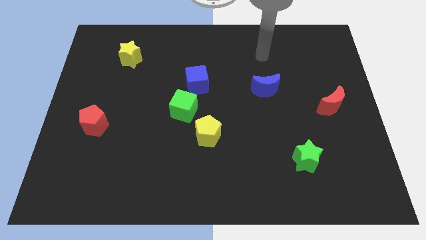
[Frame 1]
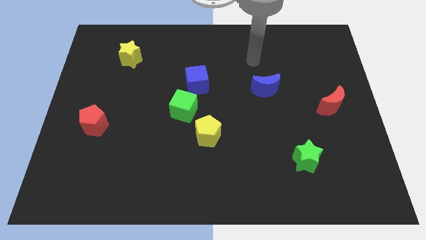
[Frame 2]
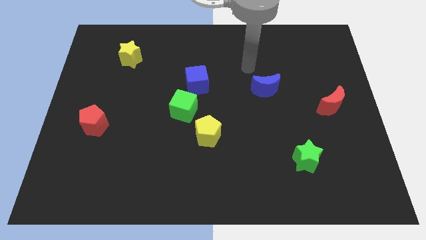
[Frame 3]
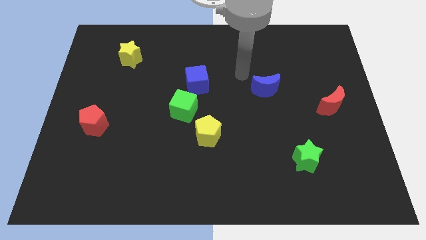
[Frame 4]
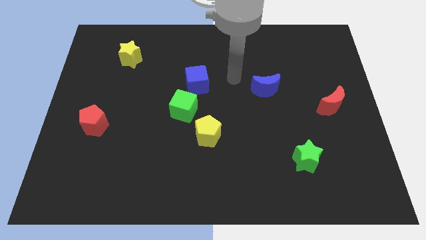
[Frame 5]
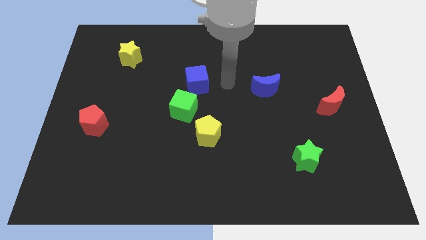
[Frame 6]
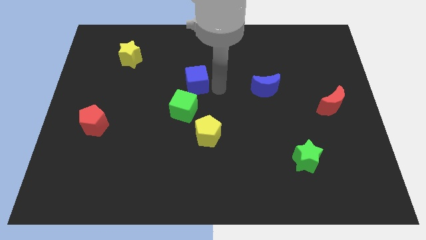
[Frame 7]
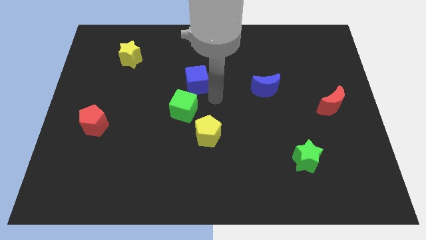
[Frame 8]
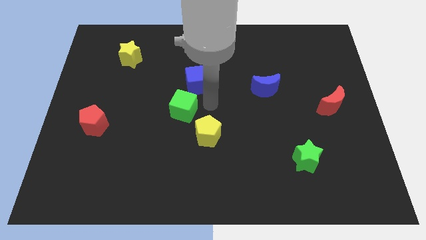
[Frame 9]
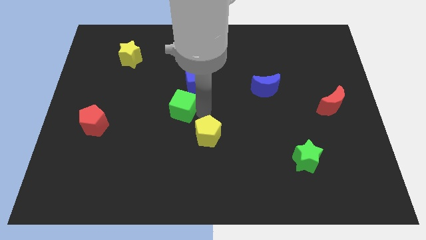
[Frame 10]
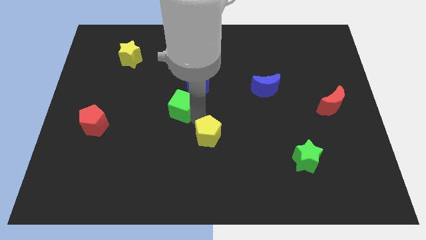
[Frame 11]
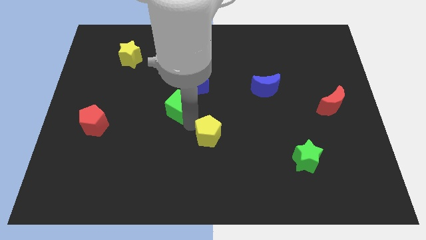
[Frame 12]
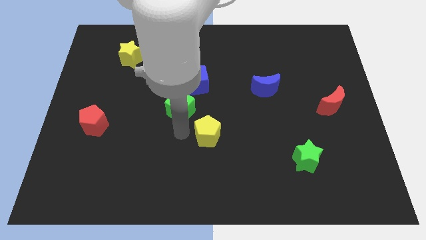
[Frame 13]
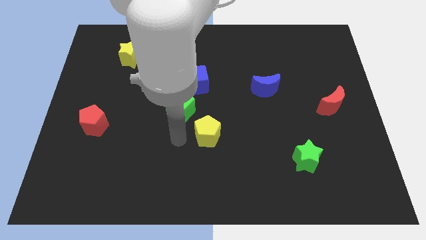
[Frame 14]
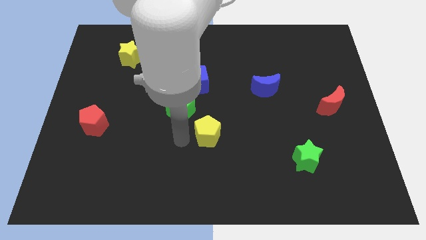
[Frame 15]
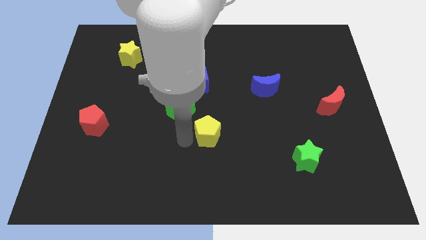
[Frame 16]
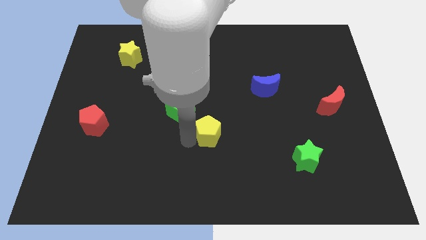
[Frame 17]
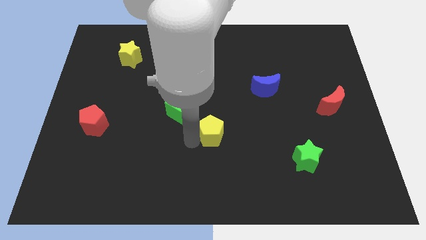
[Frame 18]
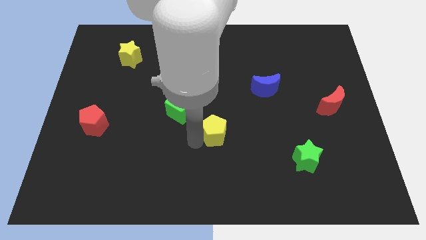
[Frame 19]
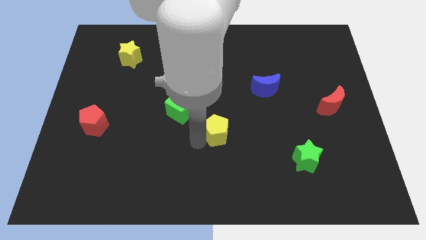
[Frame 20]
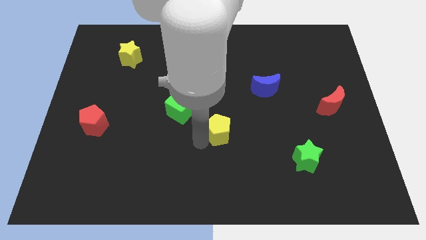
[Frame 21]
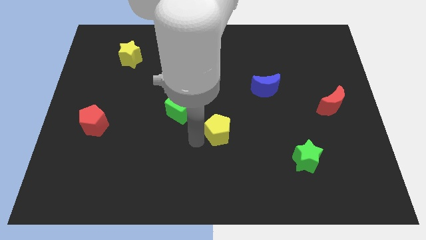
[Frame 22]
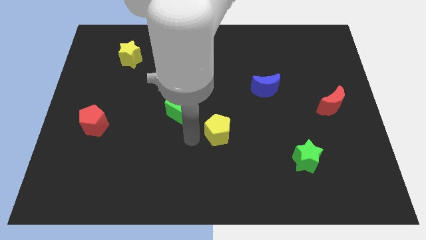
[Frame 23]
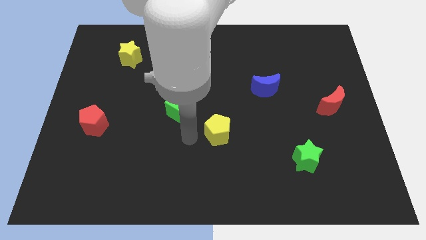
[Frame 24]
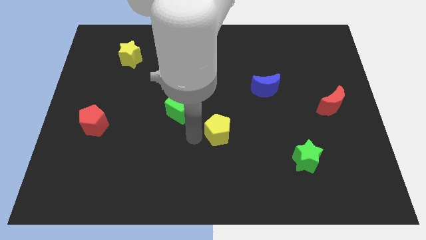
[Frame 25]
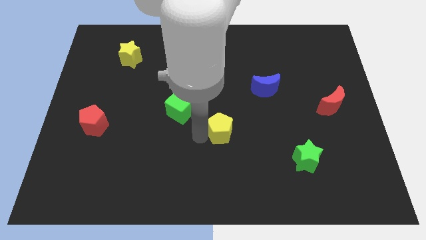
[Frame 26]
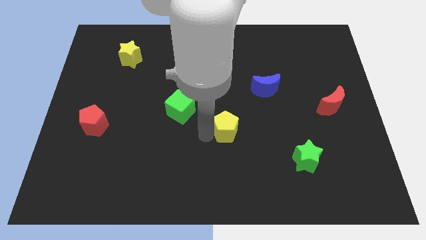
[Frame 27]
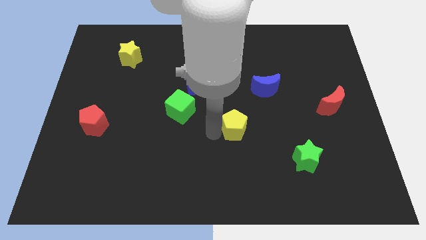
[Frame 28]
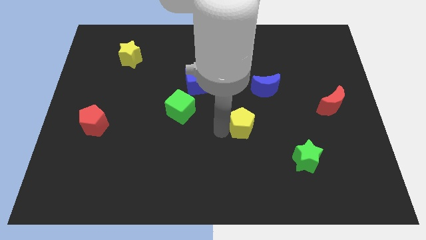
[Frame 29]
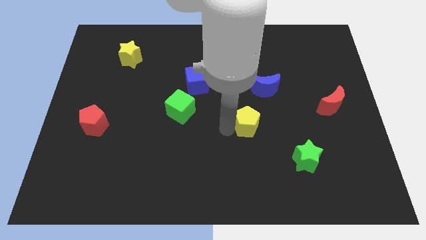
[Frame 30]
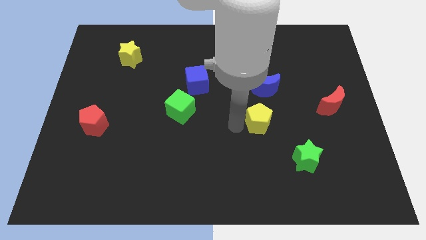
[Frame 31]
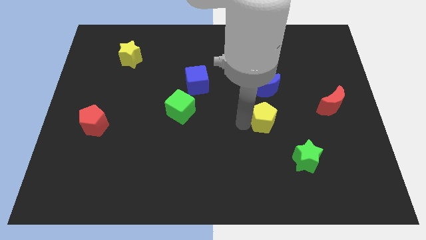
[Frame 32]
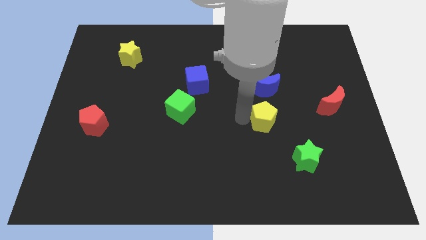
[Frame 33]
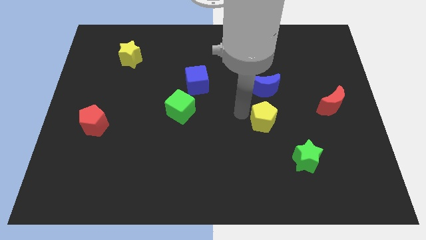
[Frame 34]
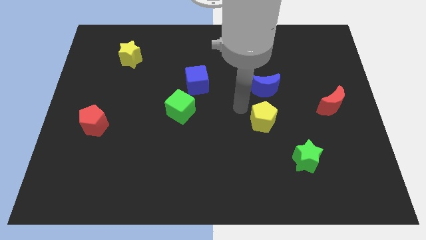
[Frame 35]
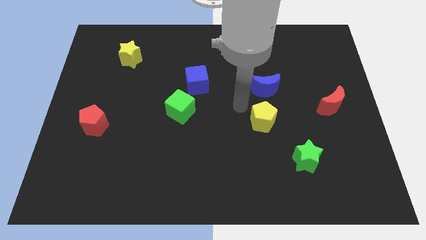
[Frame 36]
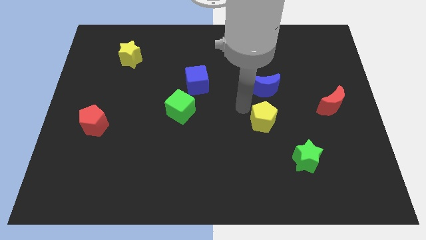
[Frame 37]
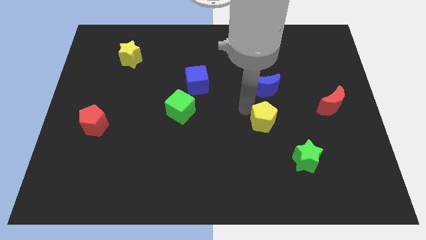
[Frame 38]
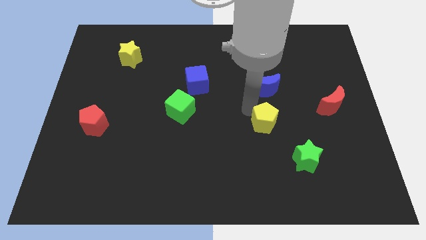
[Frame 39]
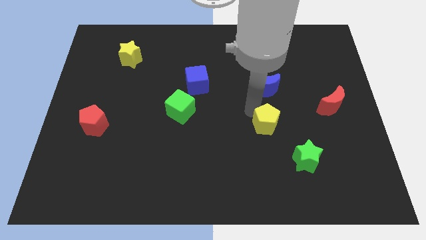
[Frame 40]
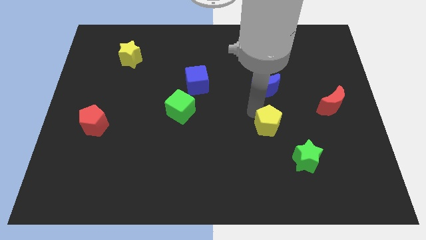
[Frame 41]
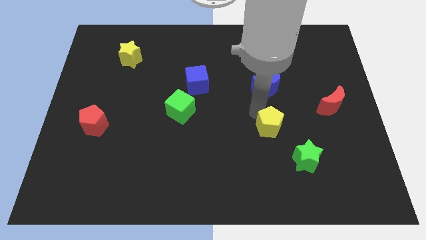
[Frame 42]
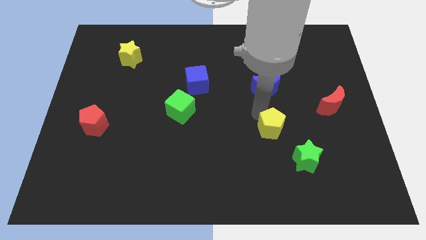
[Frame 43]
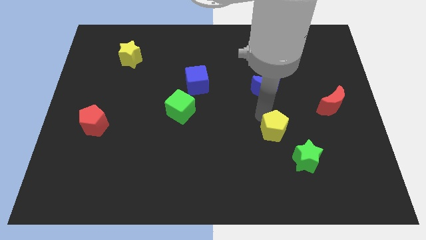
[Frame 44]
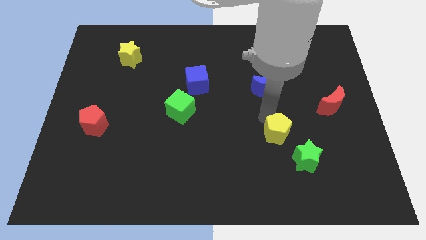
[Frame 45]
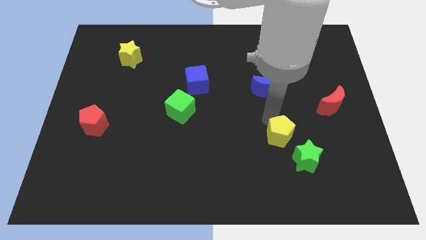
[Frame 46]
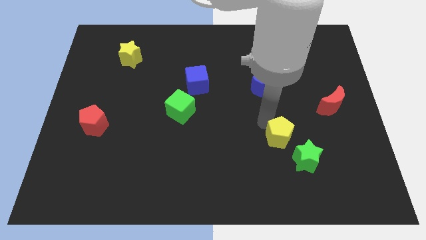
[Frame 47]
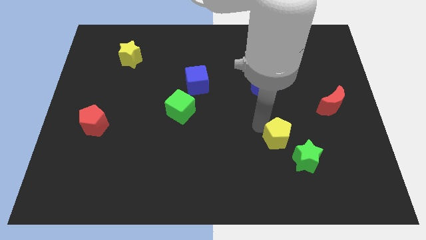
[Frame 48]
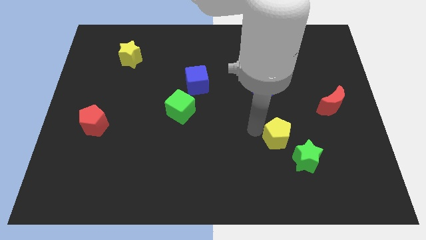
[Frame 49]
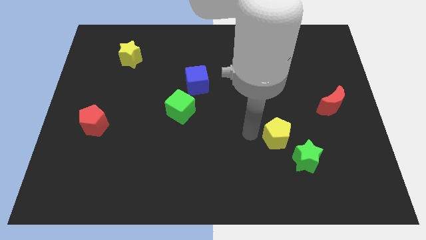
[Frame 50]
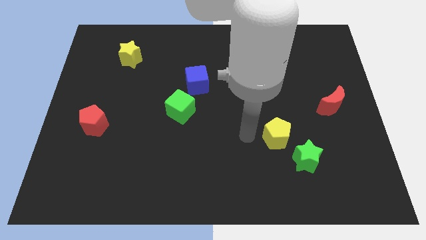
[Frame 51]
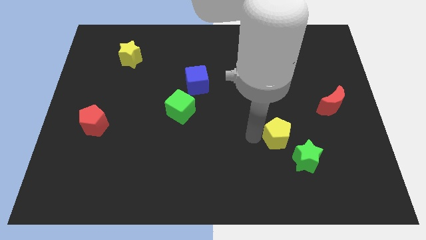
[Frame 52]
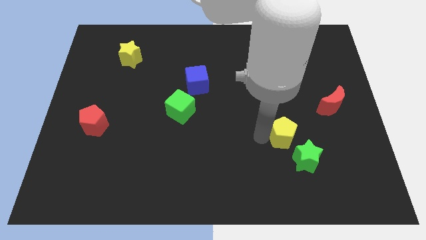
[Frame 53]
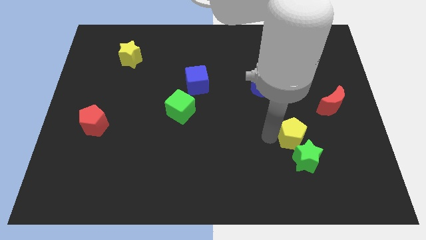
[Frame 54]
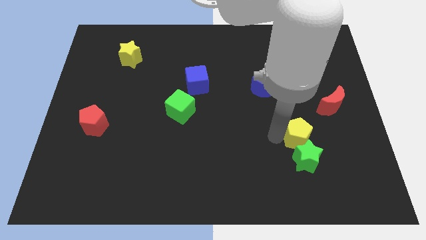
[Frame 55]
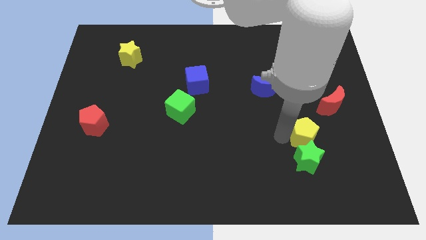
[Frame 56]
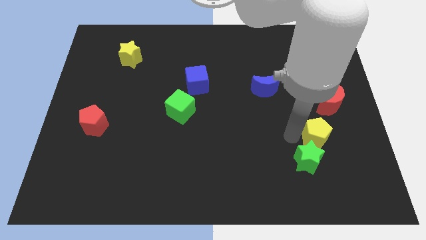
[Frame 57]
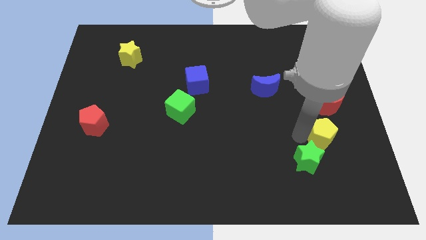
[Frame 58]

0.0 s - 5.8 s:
slide the yellow pentagon to the bottom of the red moon

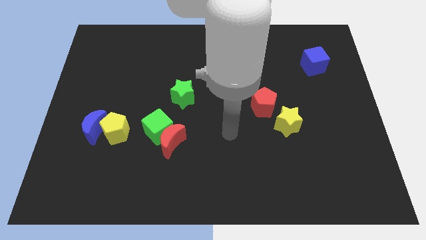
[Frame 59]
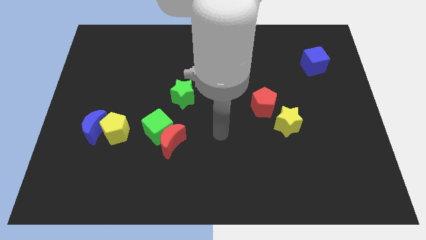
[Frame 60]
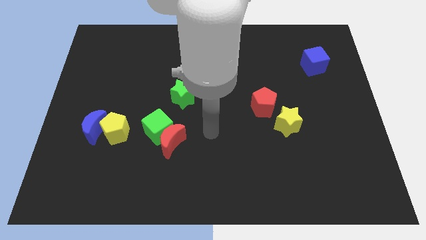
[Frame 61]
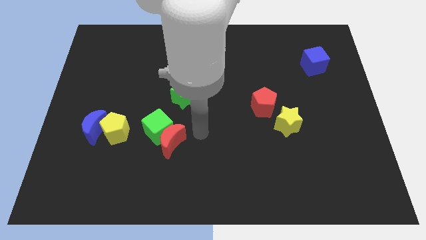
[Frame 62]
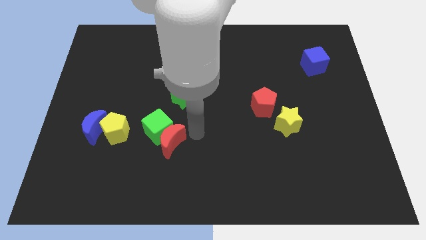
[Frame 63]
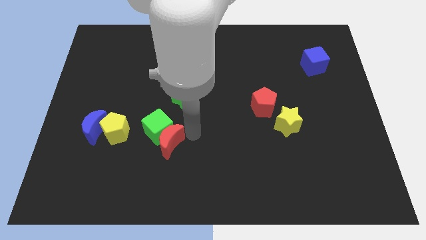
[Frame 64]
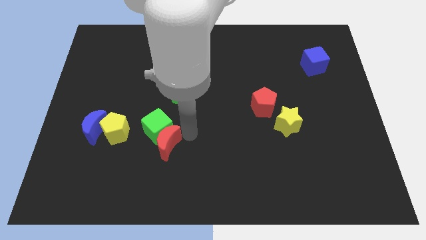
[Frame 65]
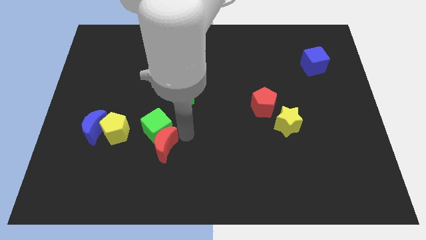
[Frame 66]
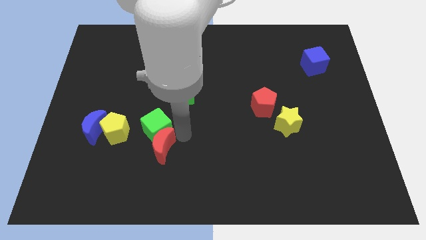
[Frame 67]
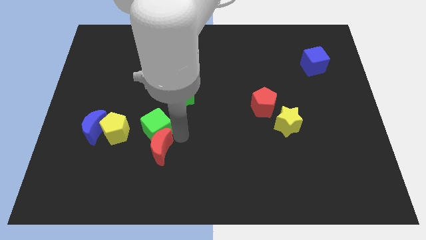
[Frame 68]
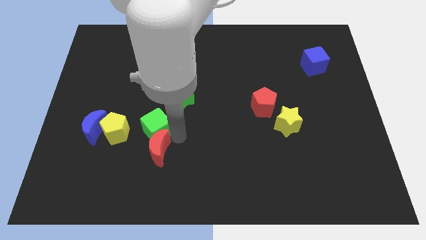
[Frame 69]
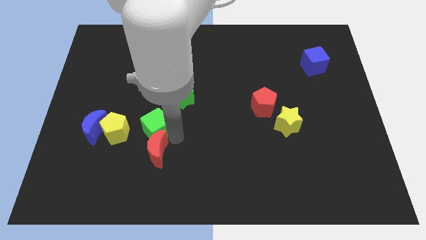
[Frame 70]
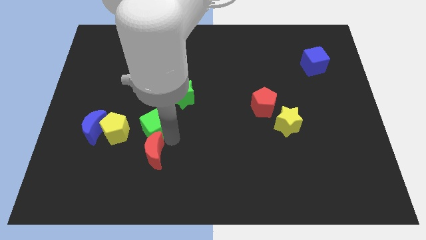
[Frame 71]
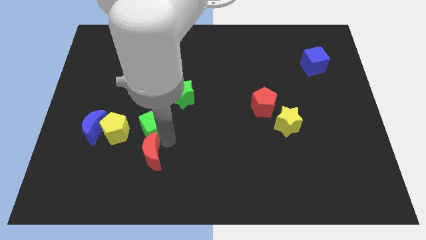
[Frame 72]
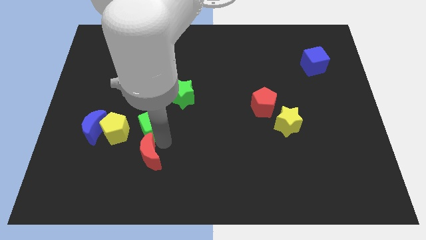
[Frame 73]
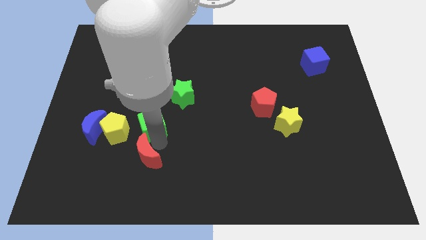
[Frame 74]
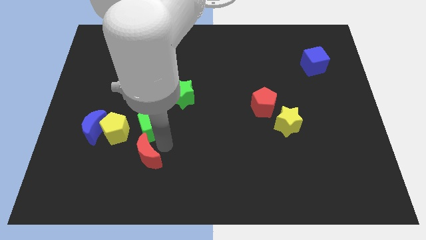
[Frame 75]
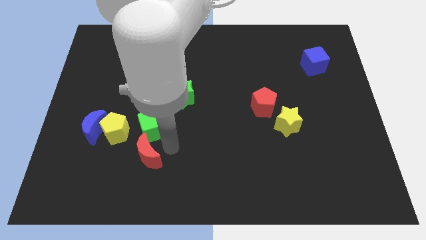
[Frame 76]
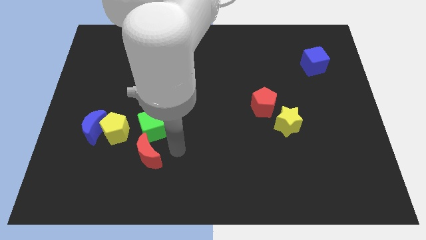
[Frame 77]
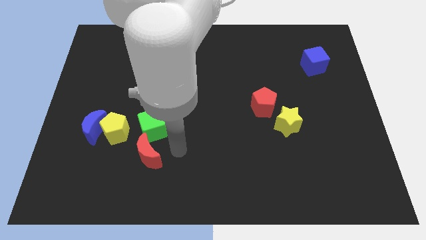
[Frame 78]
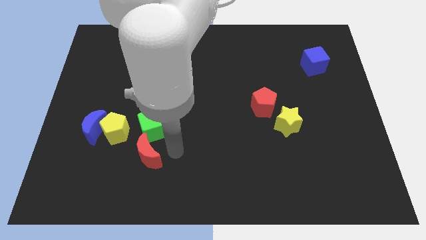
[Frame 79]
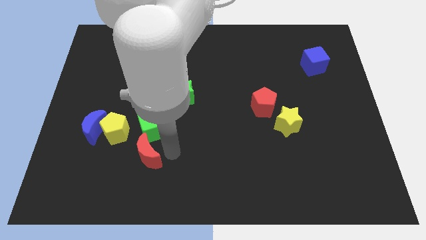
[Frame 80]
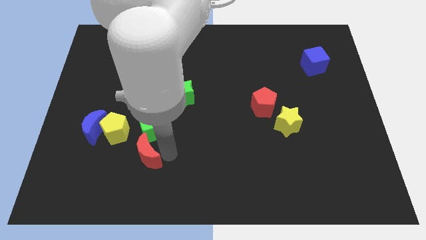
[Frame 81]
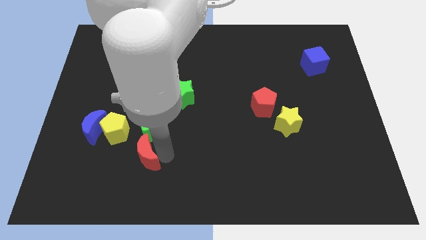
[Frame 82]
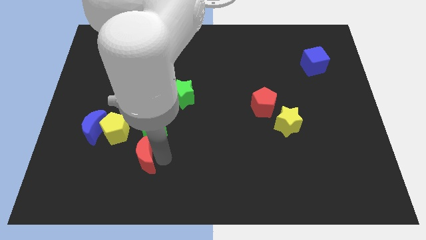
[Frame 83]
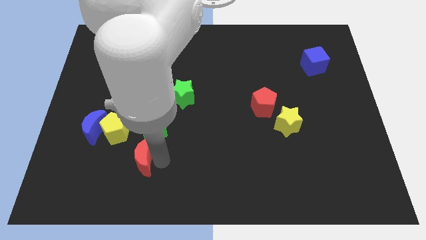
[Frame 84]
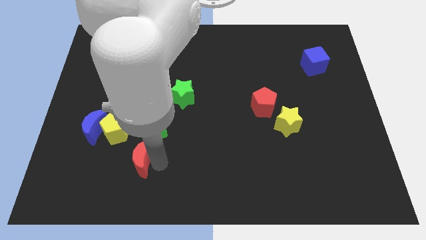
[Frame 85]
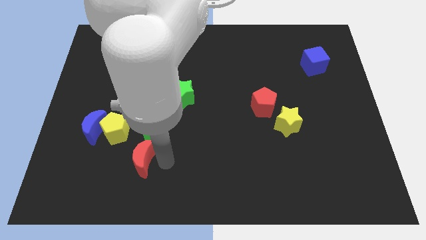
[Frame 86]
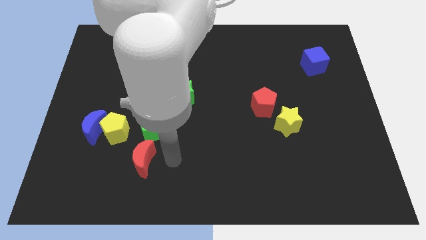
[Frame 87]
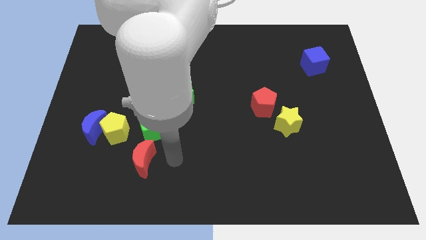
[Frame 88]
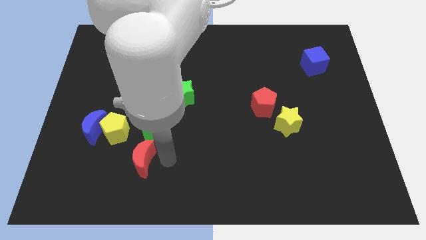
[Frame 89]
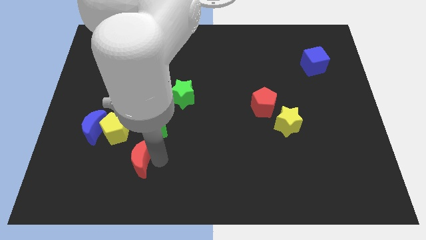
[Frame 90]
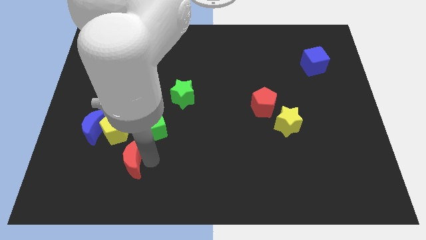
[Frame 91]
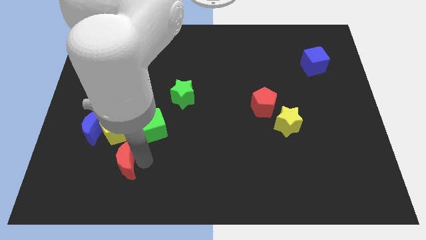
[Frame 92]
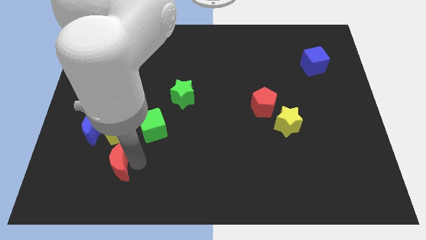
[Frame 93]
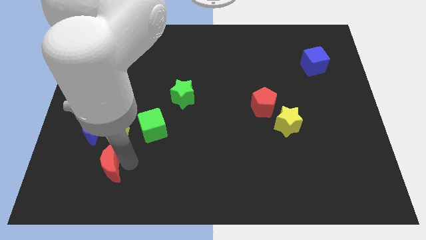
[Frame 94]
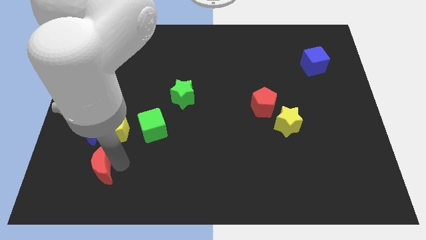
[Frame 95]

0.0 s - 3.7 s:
slide the red moon below the blue moon
